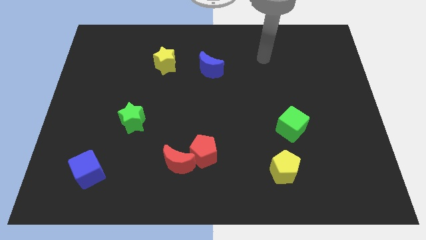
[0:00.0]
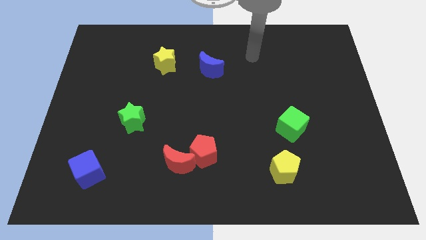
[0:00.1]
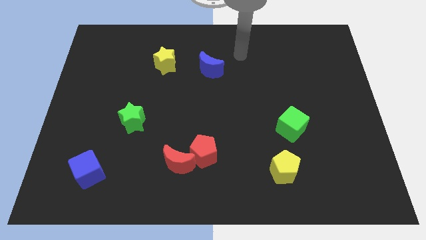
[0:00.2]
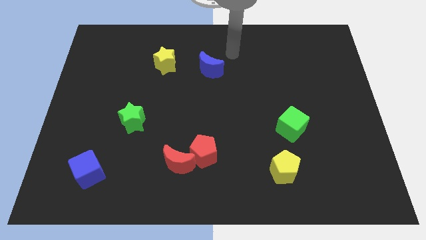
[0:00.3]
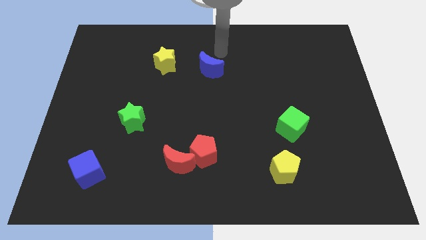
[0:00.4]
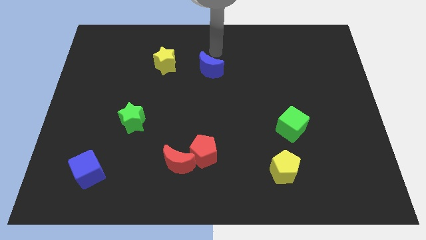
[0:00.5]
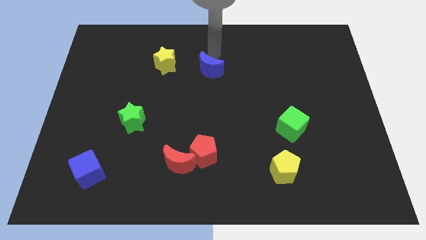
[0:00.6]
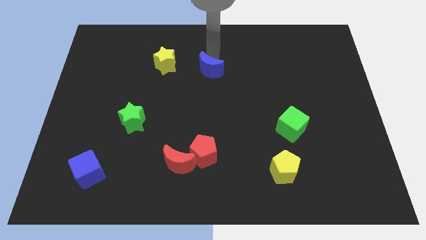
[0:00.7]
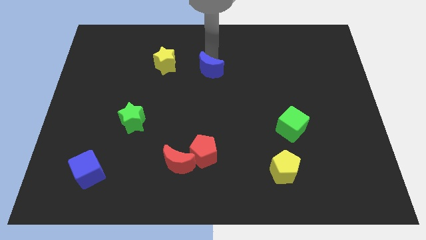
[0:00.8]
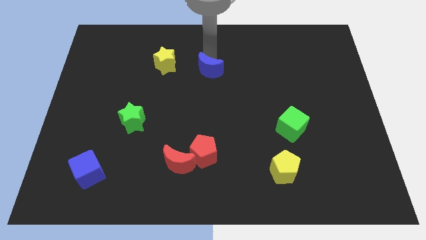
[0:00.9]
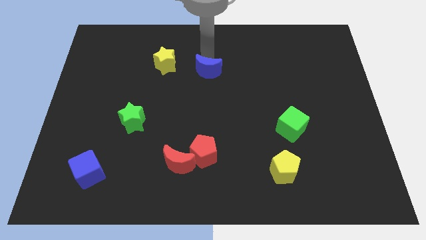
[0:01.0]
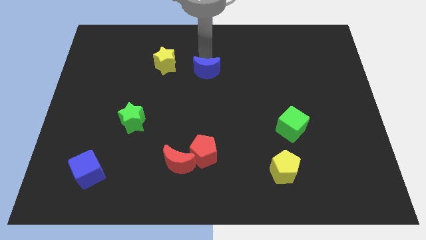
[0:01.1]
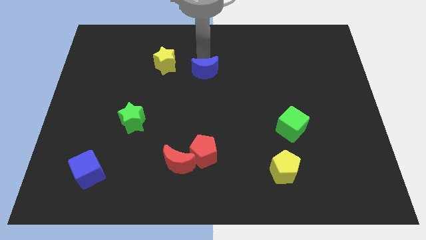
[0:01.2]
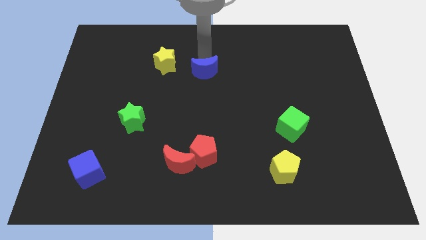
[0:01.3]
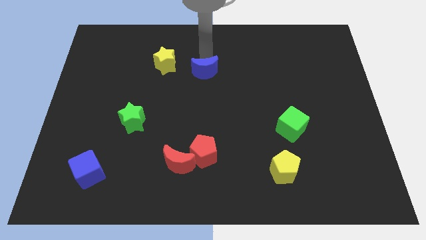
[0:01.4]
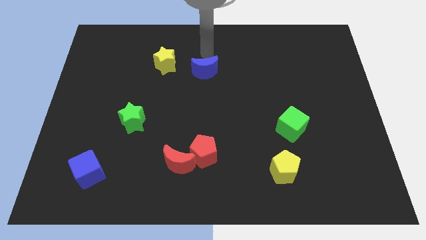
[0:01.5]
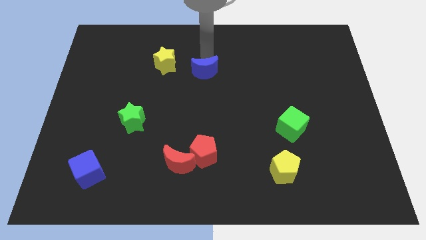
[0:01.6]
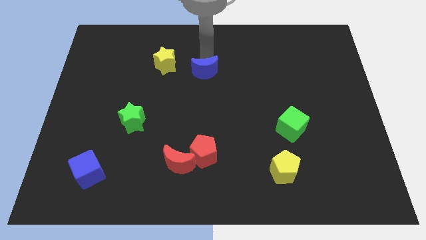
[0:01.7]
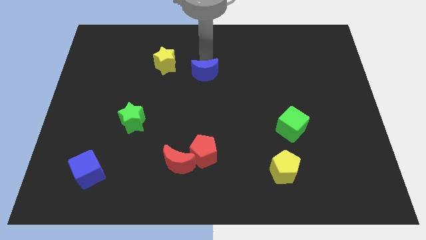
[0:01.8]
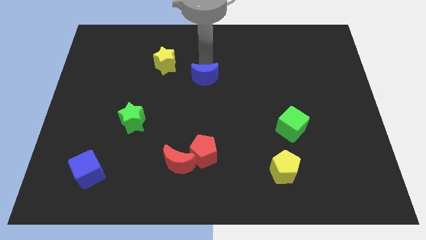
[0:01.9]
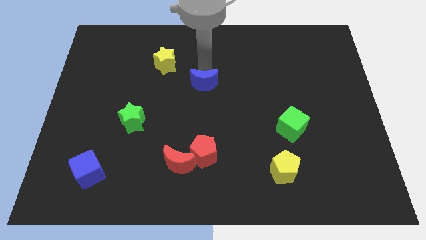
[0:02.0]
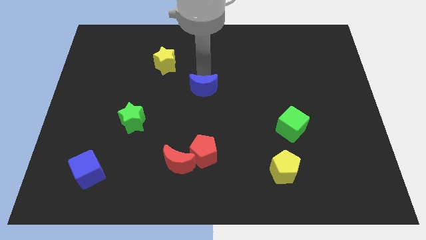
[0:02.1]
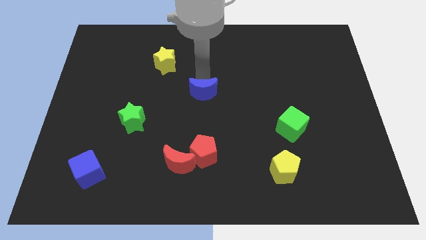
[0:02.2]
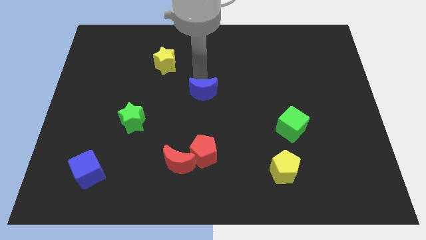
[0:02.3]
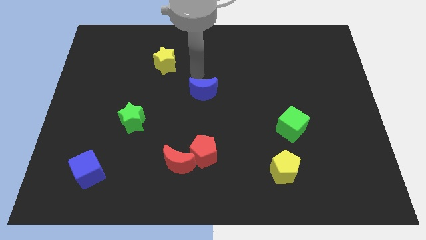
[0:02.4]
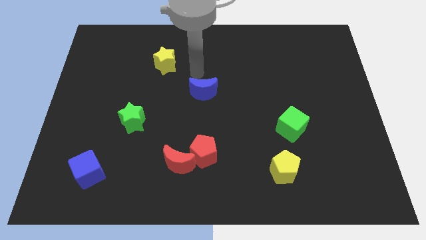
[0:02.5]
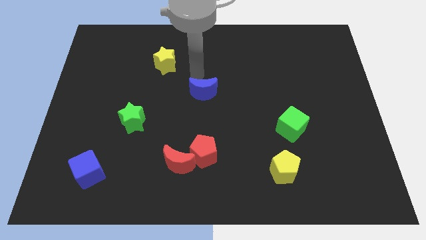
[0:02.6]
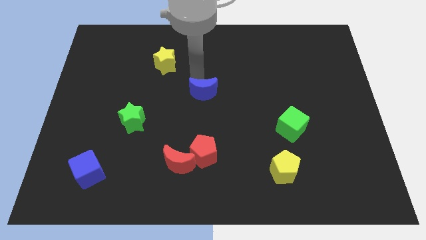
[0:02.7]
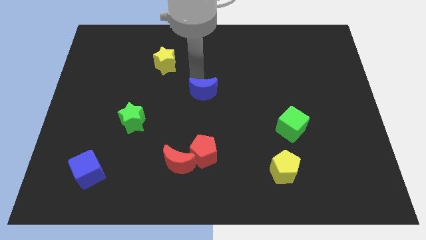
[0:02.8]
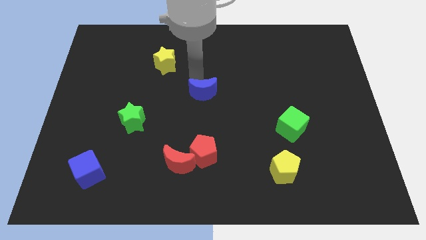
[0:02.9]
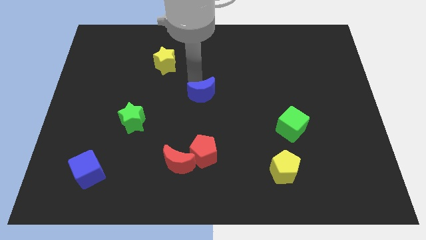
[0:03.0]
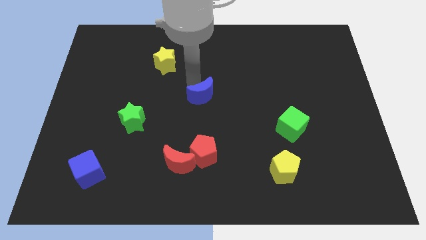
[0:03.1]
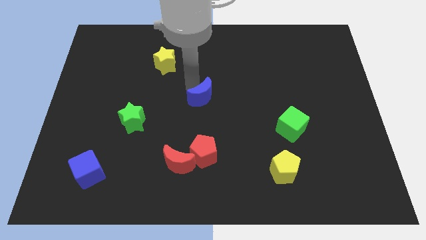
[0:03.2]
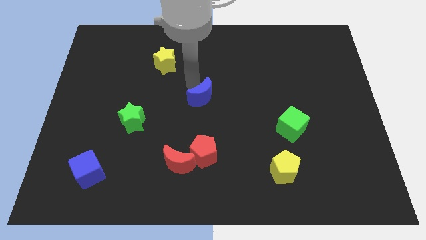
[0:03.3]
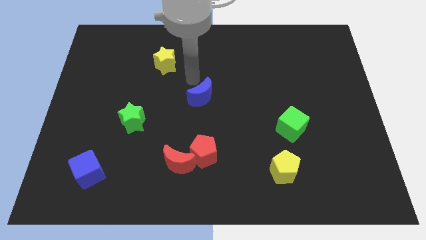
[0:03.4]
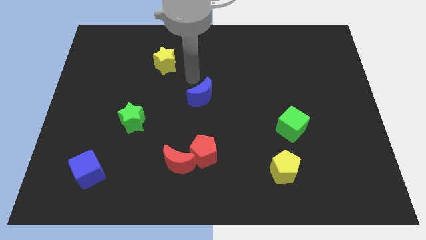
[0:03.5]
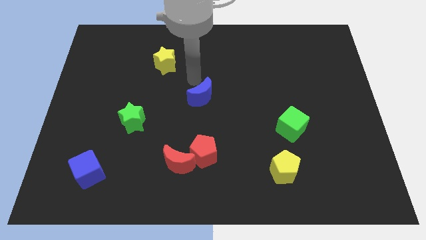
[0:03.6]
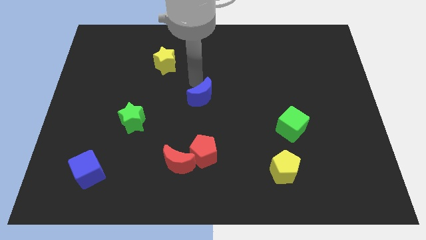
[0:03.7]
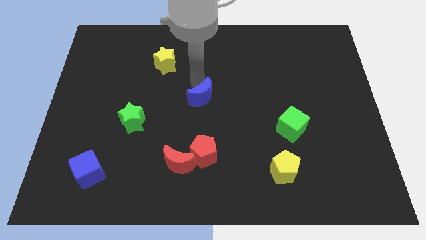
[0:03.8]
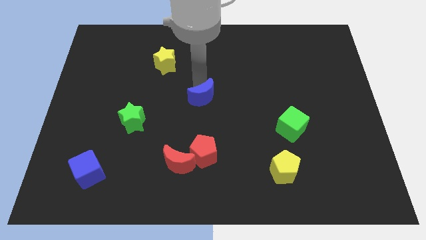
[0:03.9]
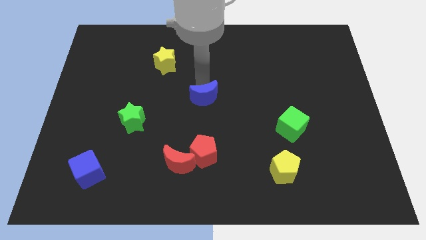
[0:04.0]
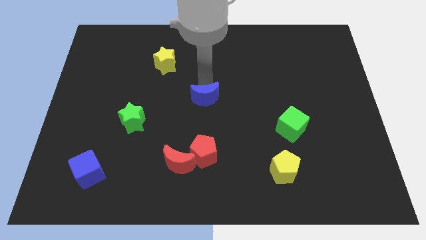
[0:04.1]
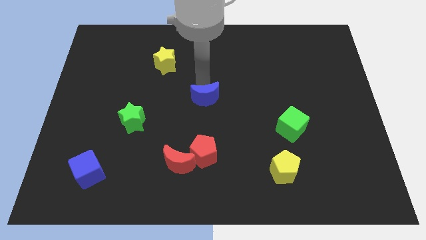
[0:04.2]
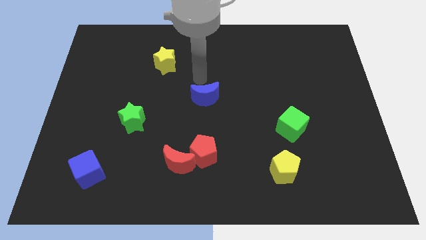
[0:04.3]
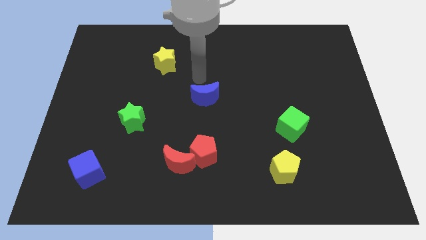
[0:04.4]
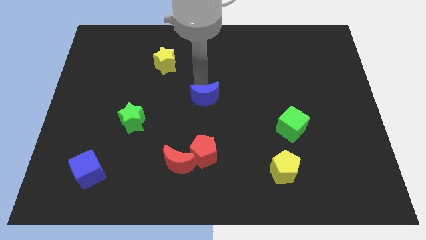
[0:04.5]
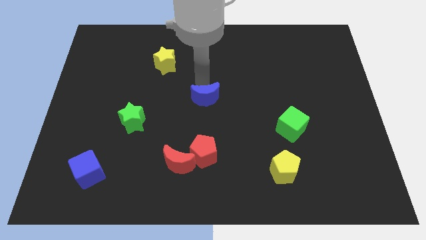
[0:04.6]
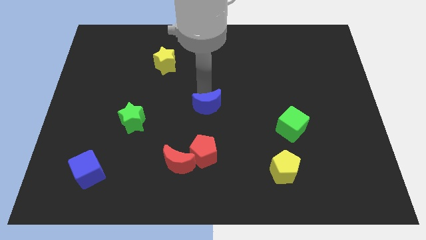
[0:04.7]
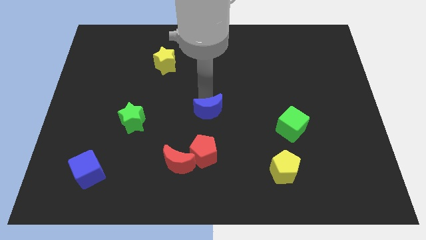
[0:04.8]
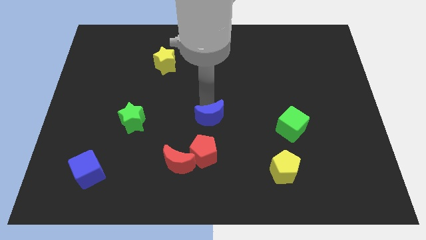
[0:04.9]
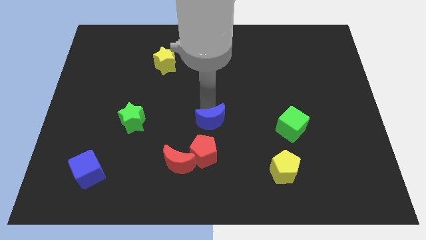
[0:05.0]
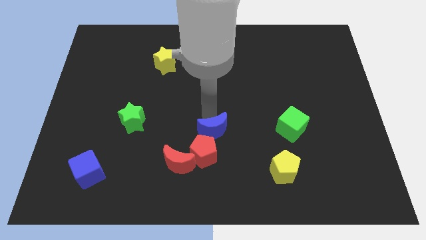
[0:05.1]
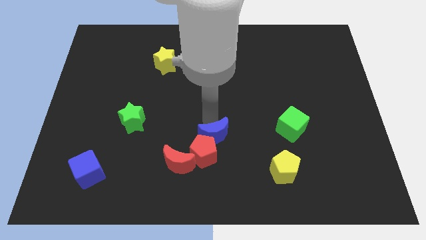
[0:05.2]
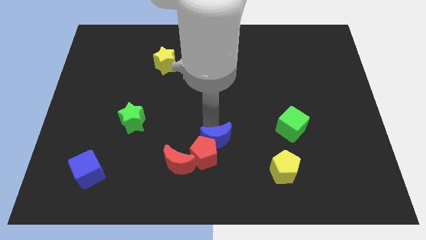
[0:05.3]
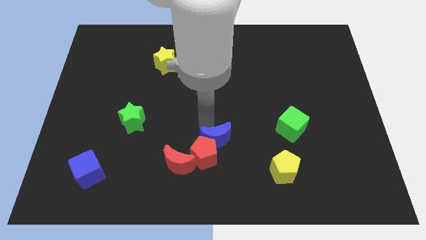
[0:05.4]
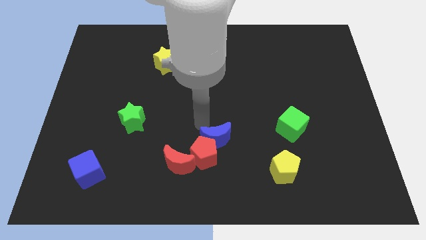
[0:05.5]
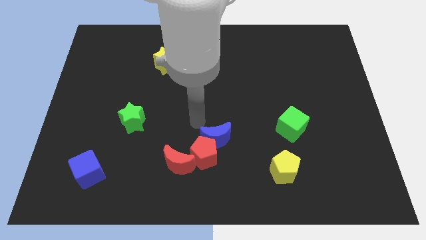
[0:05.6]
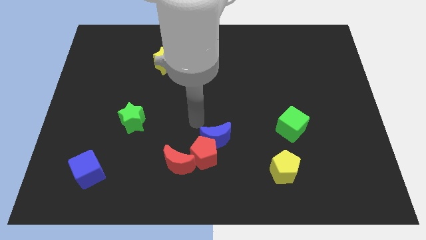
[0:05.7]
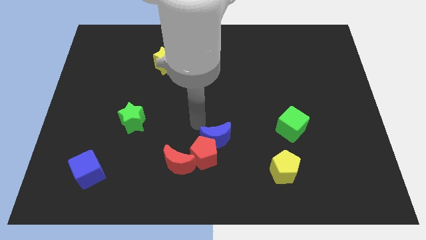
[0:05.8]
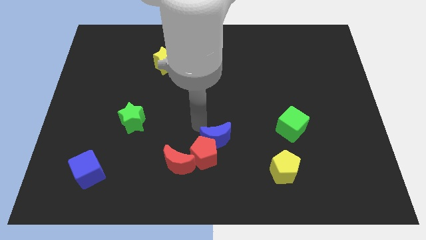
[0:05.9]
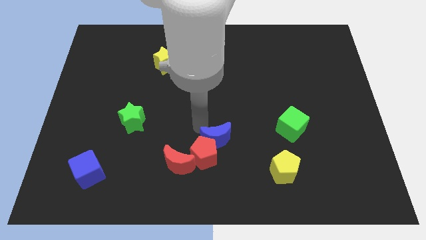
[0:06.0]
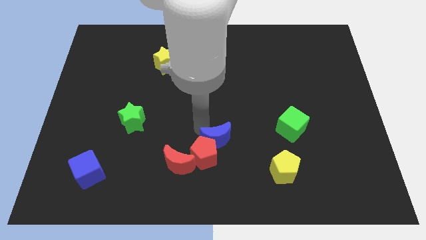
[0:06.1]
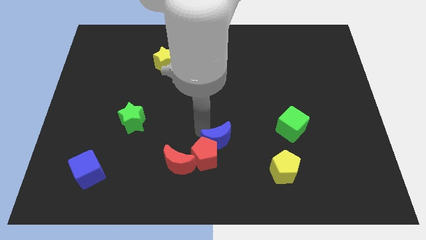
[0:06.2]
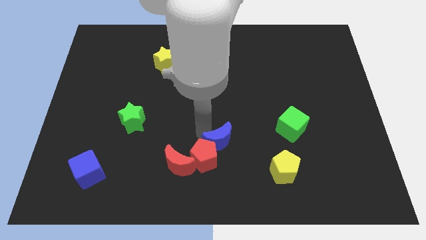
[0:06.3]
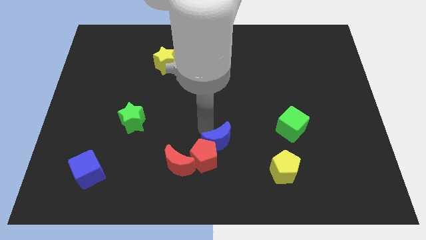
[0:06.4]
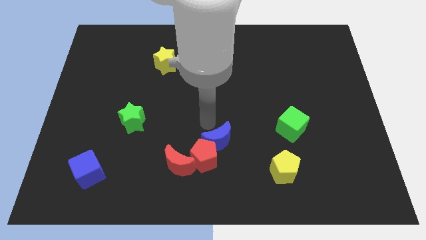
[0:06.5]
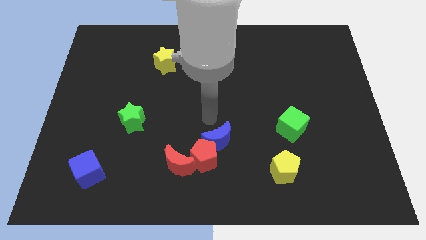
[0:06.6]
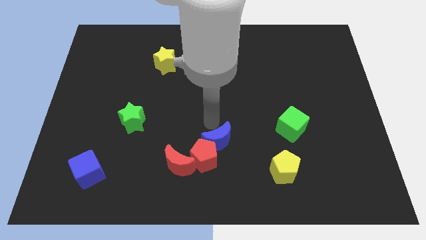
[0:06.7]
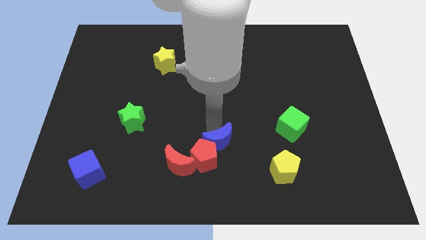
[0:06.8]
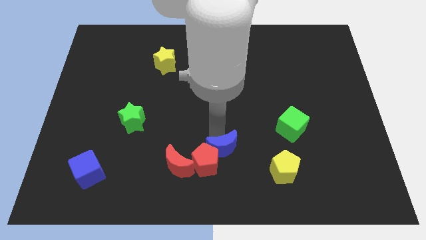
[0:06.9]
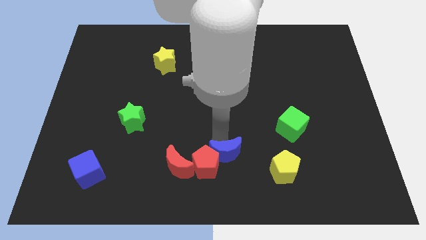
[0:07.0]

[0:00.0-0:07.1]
put the blue moon to the bottom
